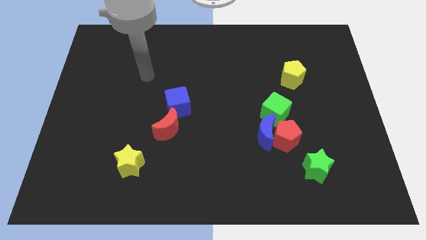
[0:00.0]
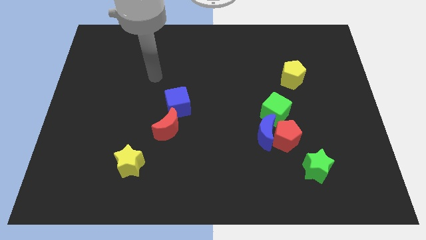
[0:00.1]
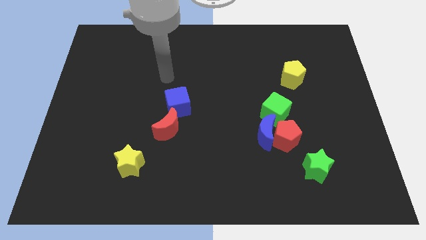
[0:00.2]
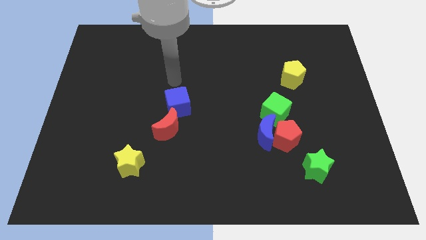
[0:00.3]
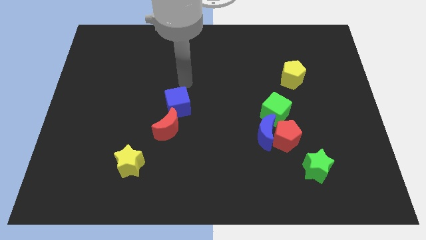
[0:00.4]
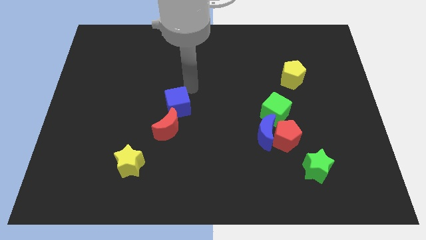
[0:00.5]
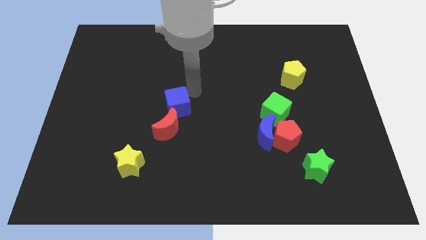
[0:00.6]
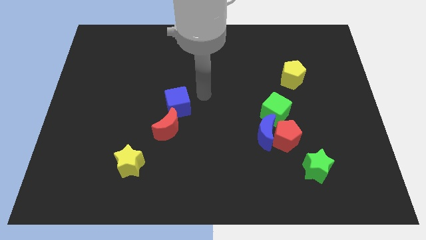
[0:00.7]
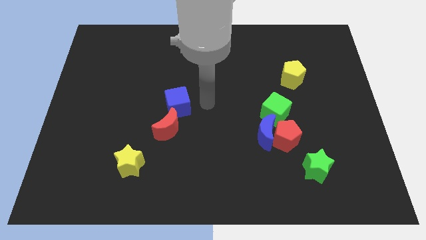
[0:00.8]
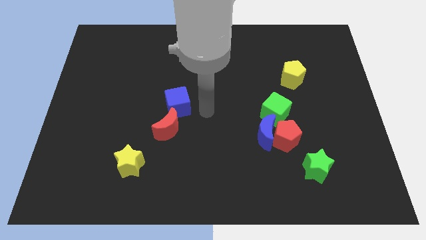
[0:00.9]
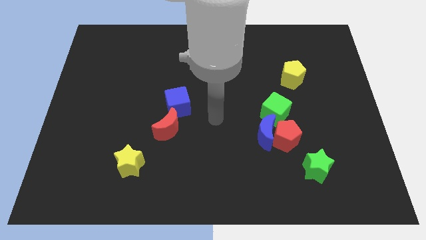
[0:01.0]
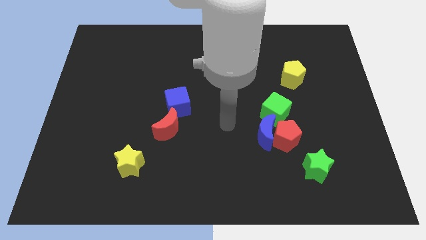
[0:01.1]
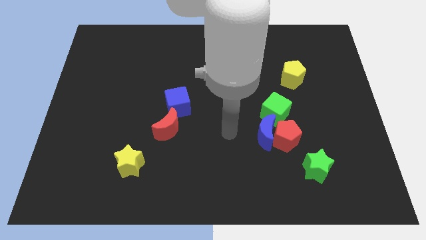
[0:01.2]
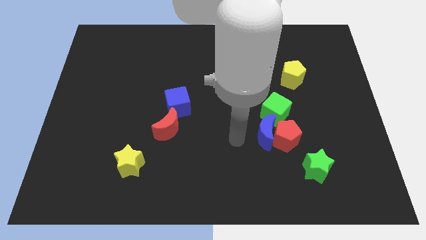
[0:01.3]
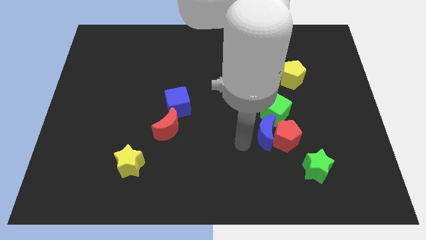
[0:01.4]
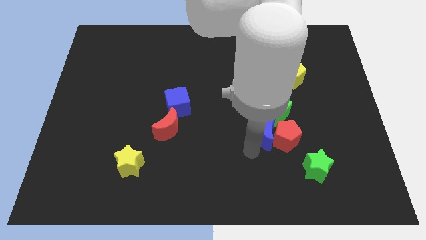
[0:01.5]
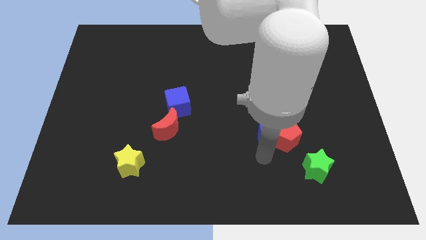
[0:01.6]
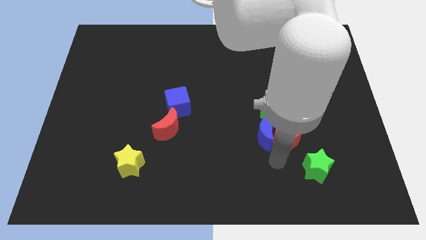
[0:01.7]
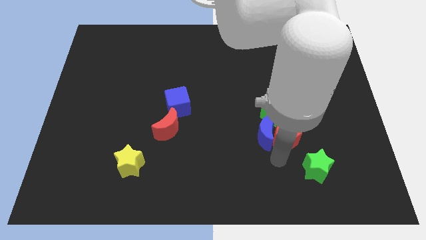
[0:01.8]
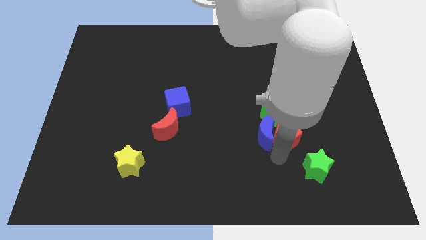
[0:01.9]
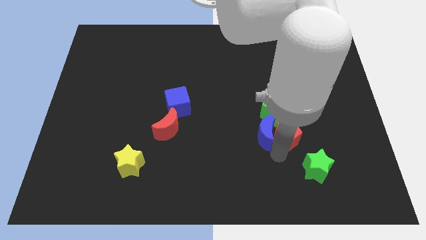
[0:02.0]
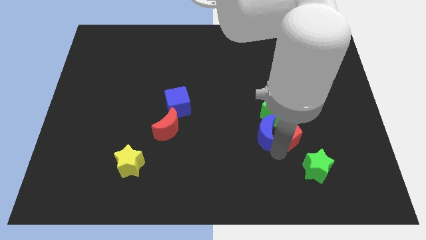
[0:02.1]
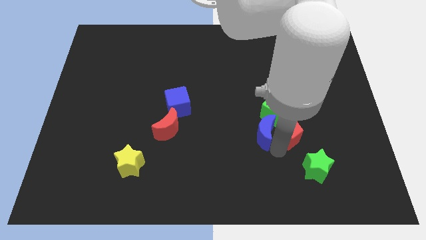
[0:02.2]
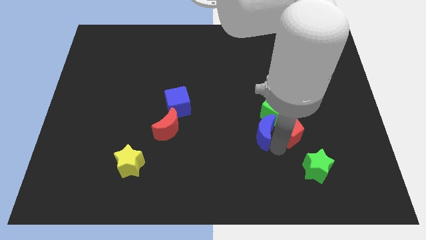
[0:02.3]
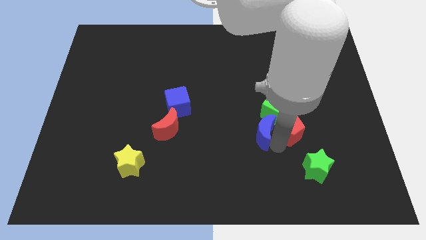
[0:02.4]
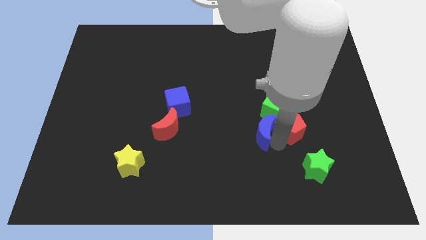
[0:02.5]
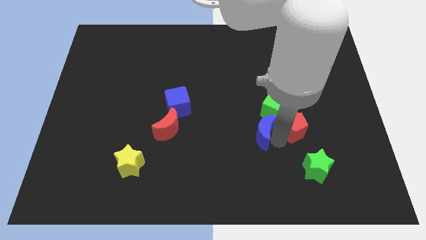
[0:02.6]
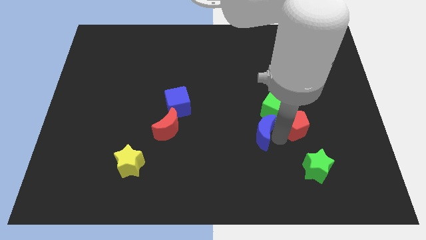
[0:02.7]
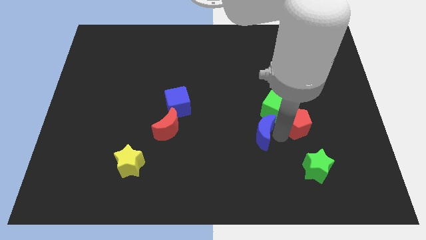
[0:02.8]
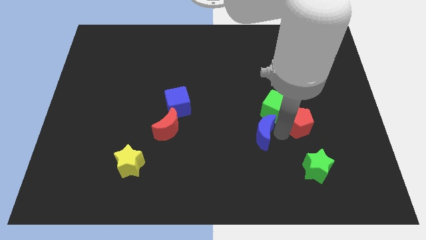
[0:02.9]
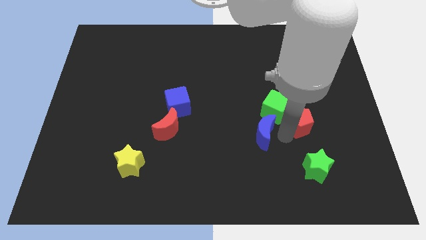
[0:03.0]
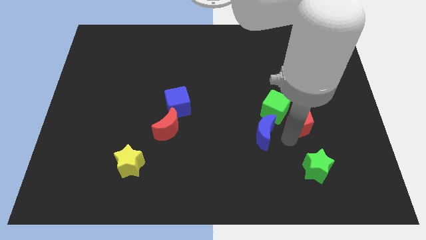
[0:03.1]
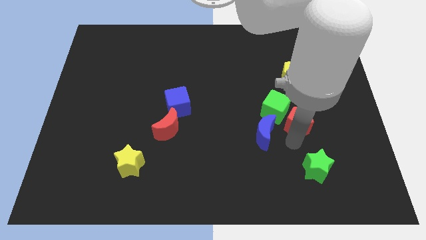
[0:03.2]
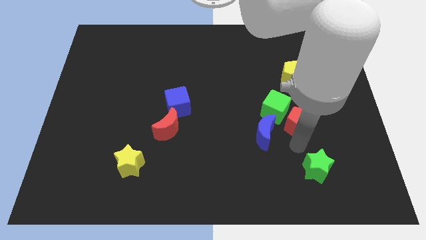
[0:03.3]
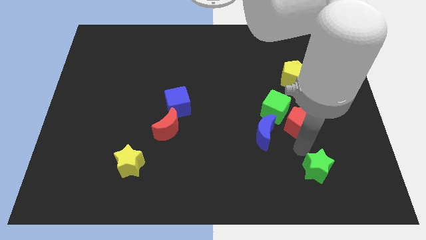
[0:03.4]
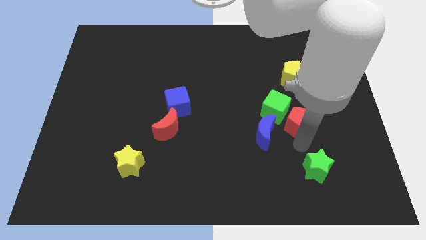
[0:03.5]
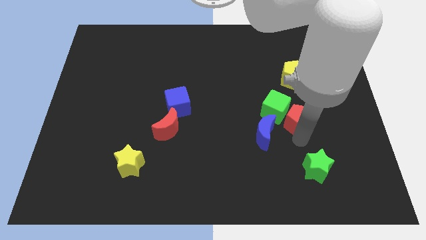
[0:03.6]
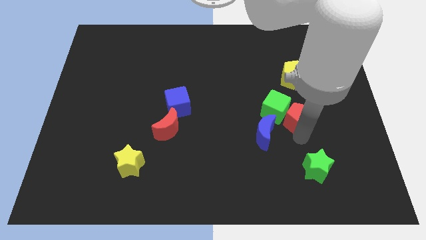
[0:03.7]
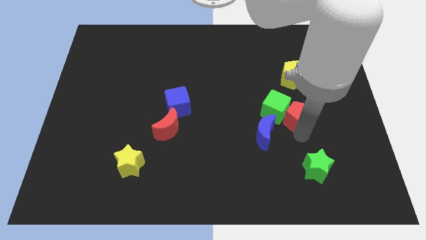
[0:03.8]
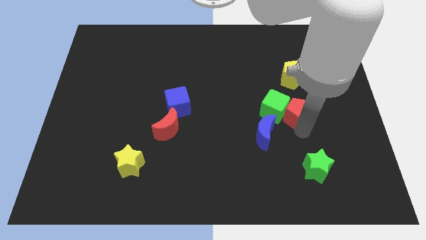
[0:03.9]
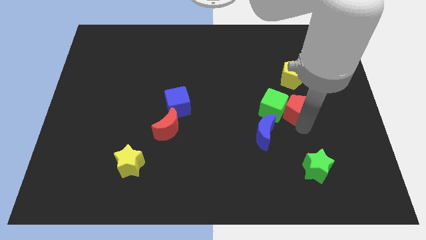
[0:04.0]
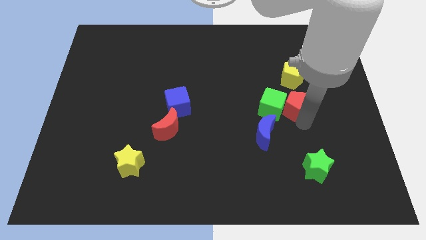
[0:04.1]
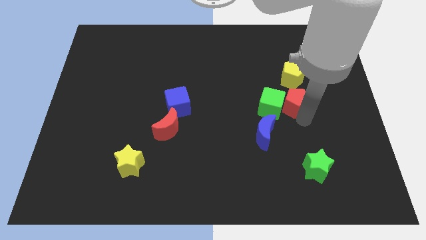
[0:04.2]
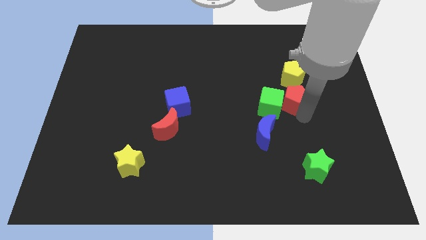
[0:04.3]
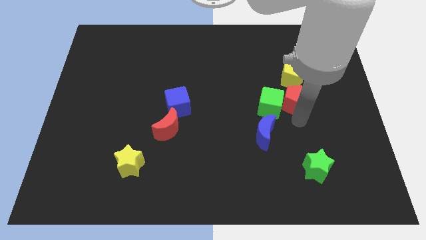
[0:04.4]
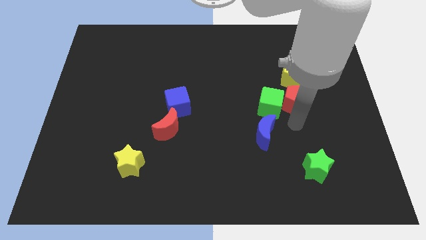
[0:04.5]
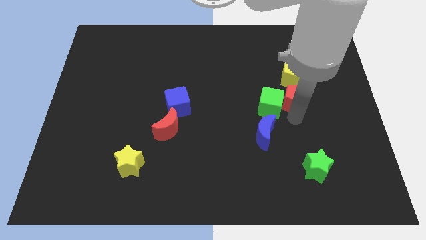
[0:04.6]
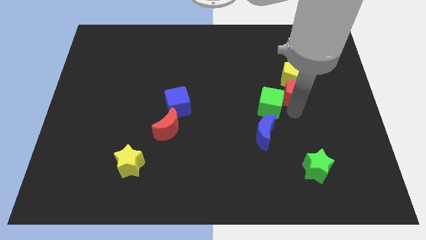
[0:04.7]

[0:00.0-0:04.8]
slide the red pentagon next to the yellow pentagon

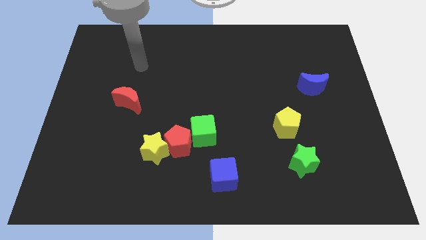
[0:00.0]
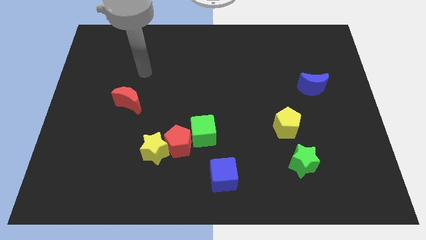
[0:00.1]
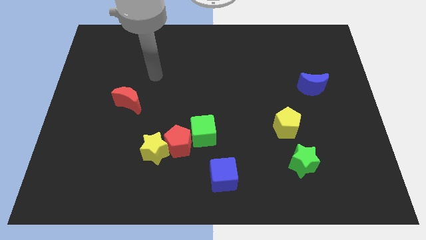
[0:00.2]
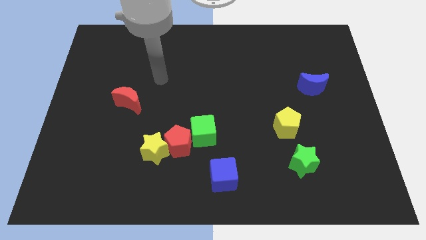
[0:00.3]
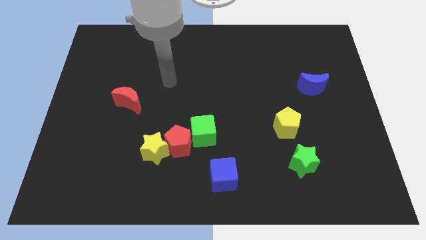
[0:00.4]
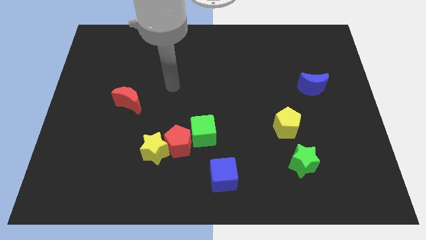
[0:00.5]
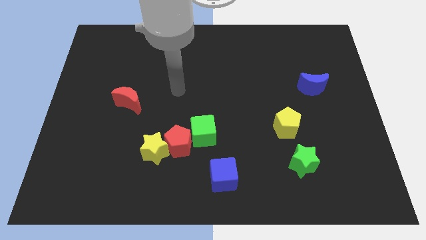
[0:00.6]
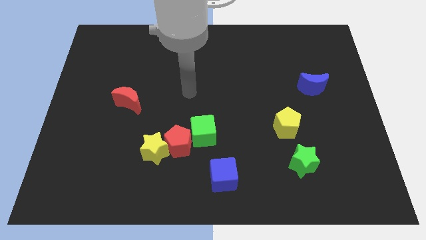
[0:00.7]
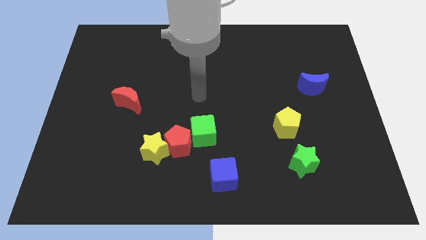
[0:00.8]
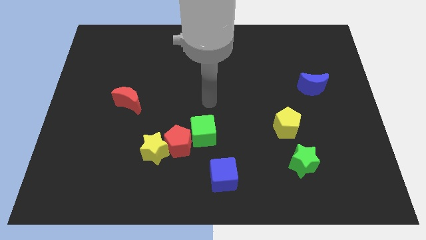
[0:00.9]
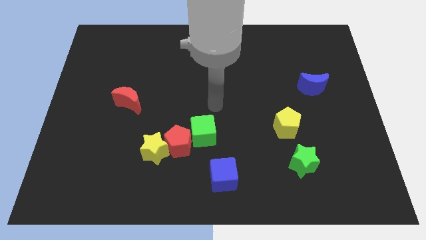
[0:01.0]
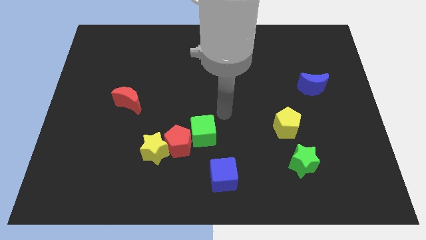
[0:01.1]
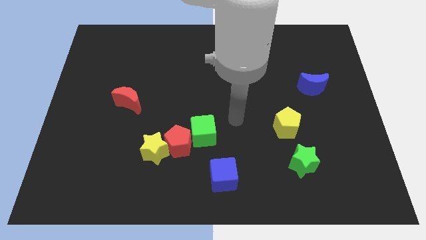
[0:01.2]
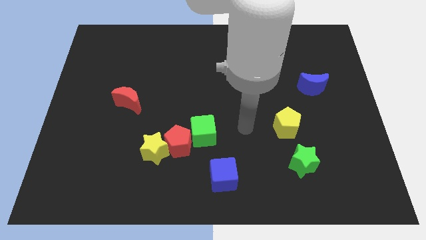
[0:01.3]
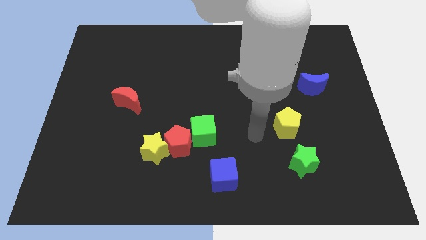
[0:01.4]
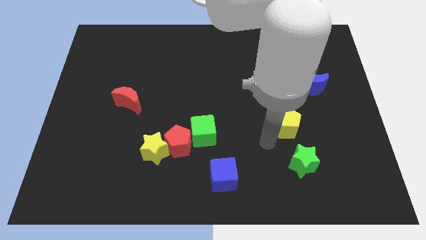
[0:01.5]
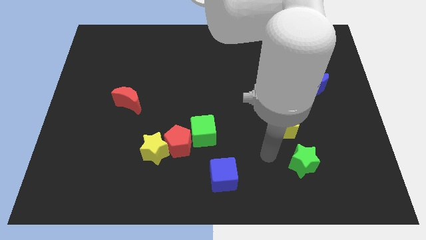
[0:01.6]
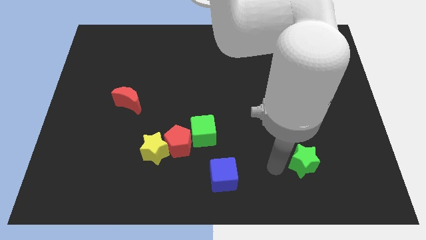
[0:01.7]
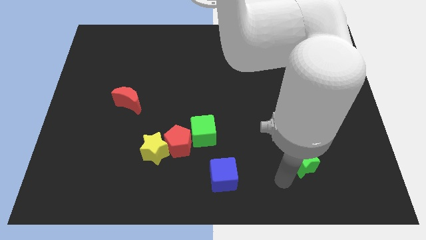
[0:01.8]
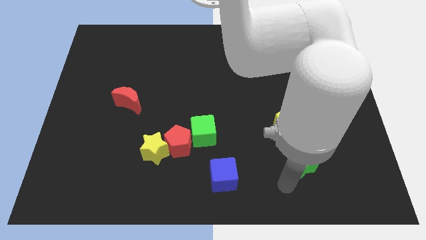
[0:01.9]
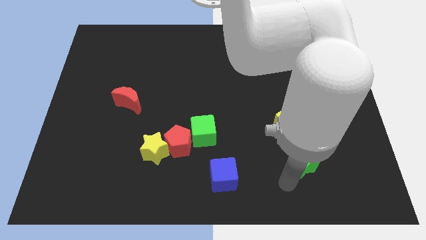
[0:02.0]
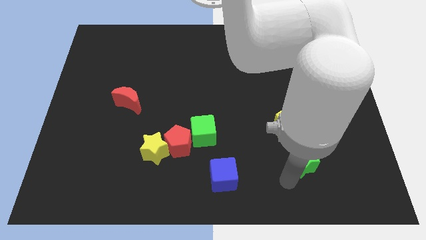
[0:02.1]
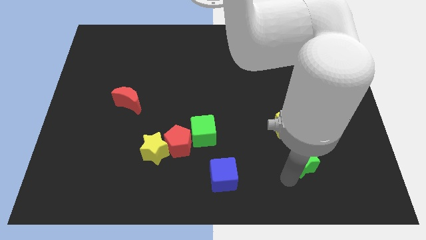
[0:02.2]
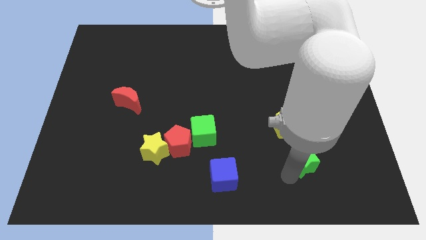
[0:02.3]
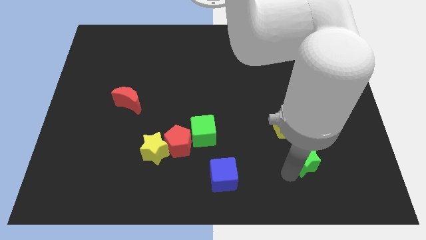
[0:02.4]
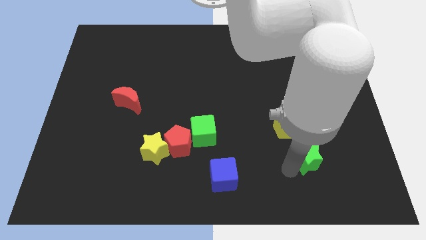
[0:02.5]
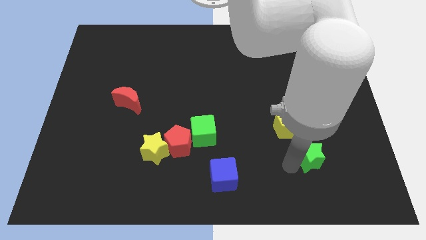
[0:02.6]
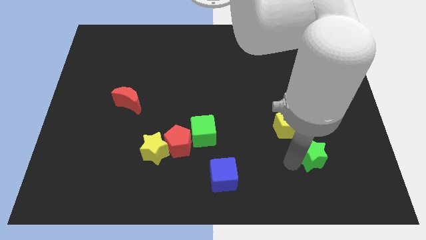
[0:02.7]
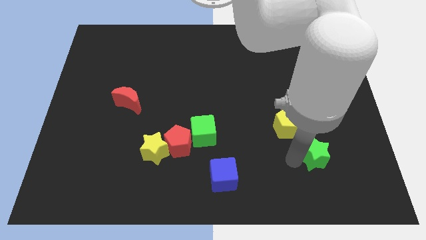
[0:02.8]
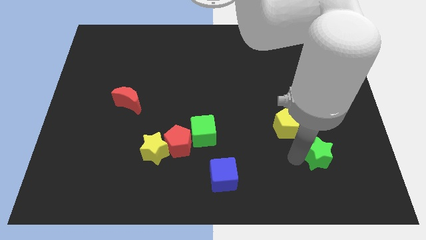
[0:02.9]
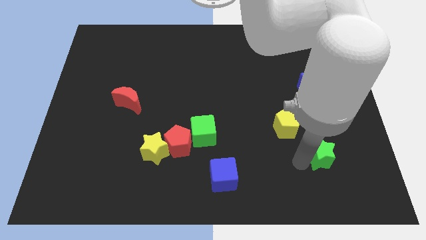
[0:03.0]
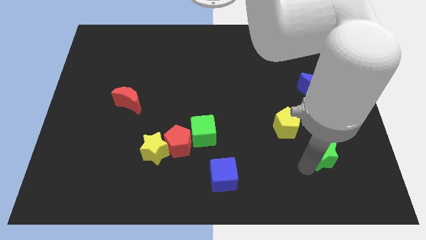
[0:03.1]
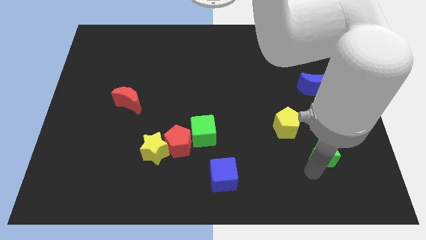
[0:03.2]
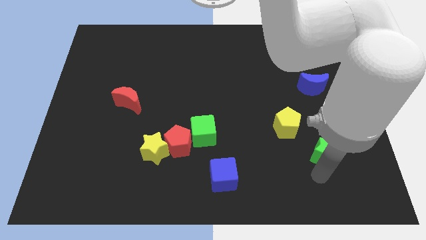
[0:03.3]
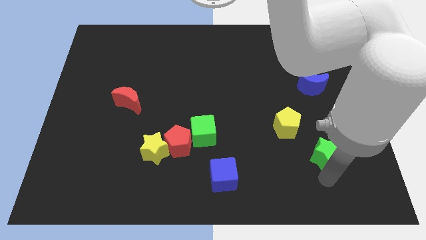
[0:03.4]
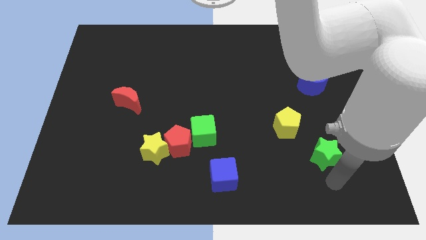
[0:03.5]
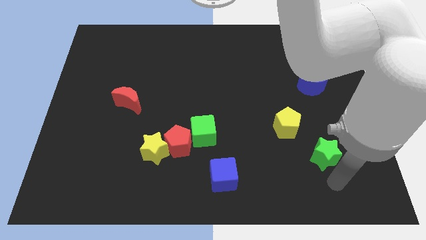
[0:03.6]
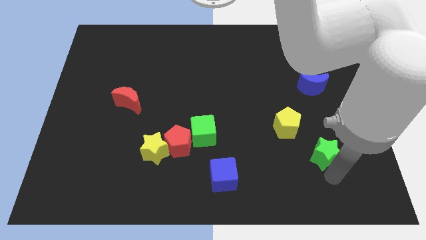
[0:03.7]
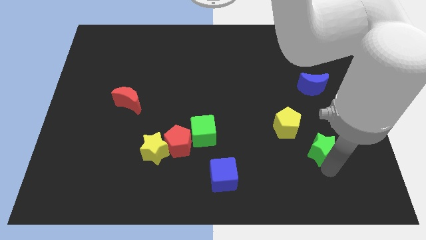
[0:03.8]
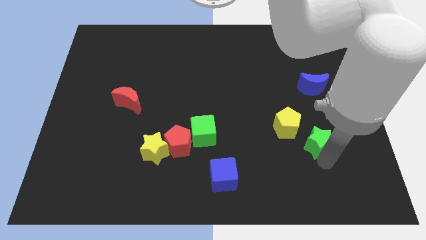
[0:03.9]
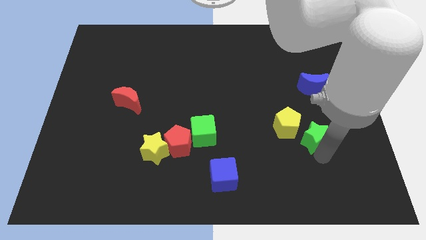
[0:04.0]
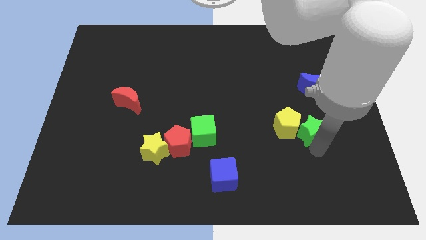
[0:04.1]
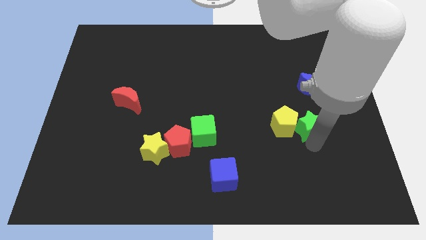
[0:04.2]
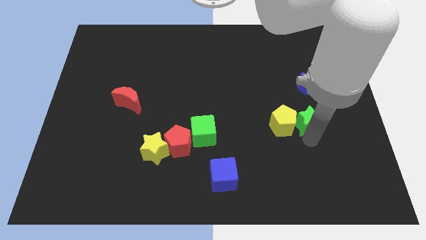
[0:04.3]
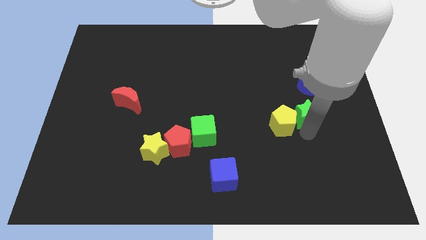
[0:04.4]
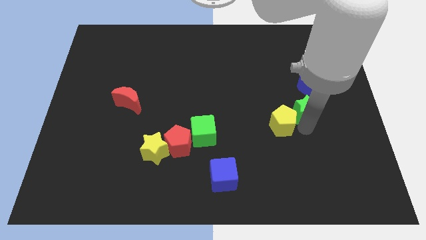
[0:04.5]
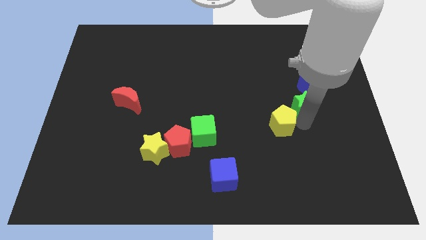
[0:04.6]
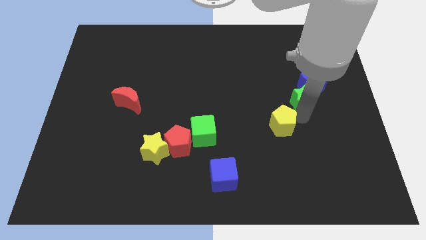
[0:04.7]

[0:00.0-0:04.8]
move the green star next to the blue moon
